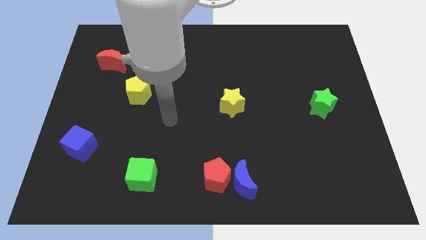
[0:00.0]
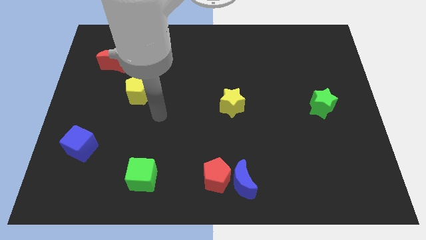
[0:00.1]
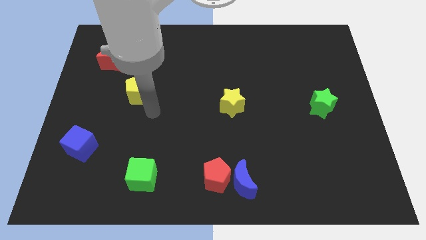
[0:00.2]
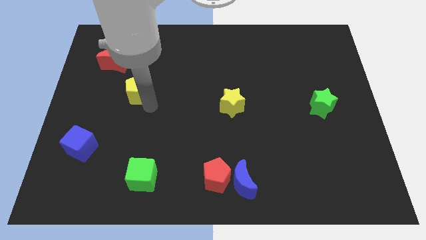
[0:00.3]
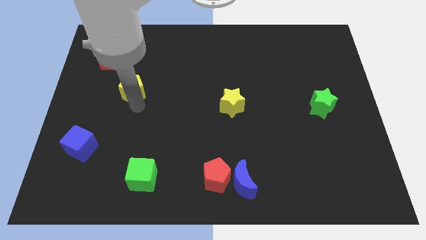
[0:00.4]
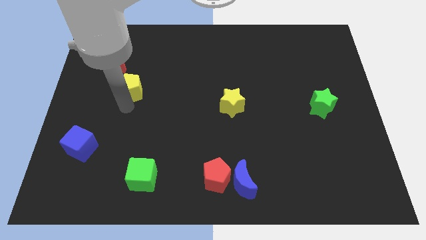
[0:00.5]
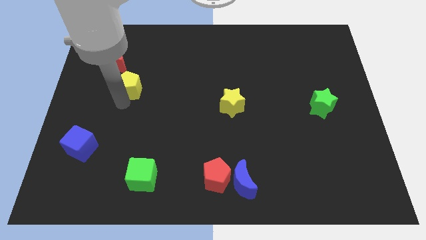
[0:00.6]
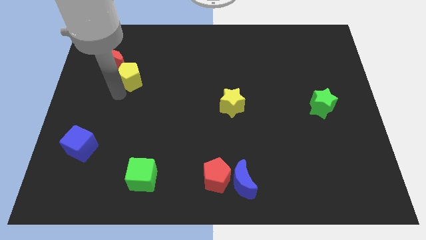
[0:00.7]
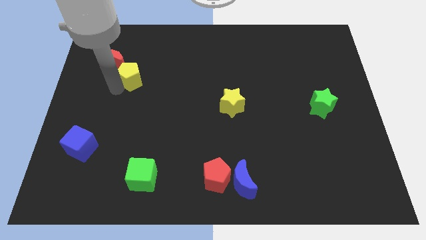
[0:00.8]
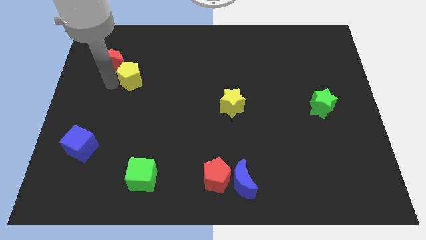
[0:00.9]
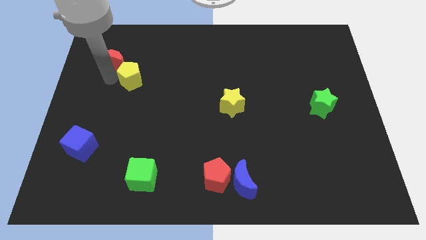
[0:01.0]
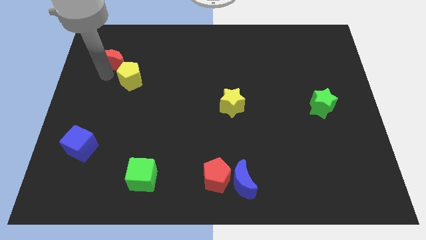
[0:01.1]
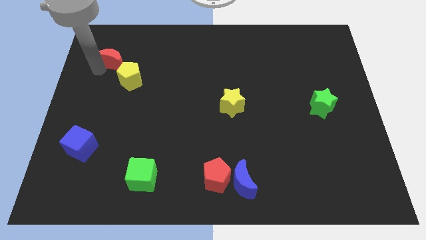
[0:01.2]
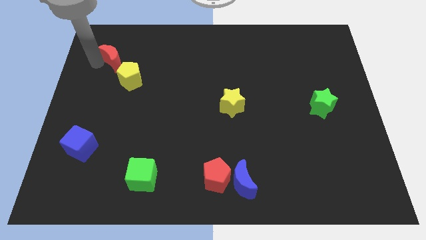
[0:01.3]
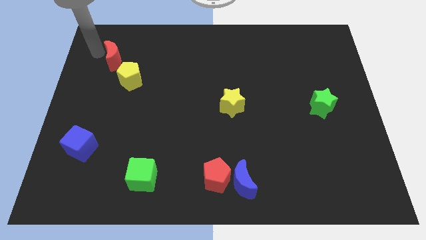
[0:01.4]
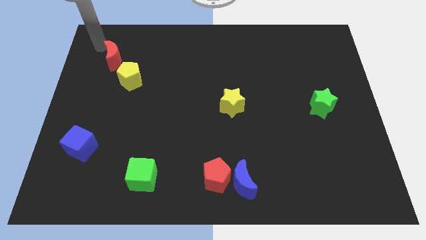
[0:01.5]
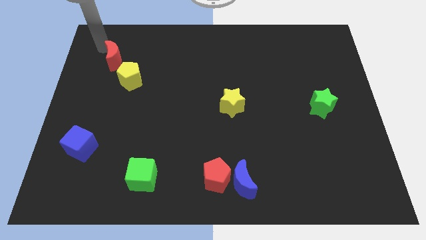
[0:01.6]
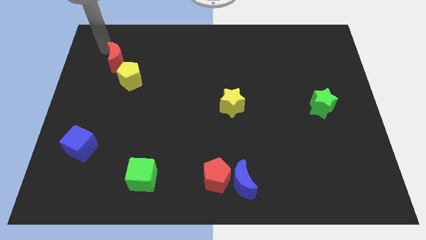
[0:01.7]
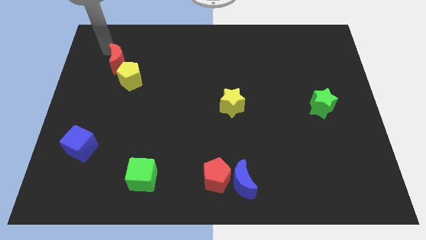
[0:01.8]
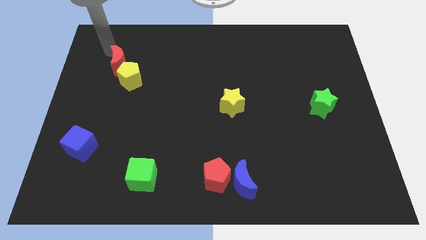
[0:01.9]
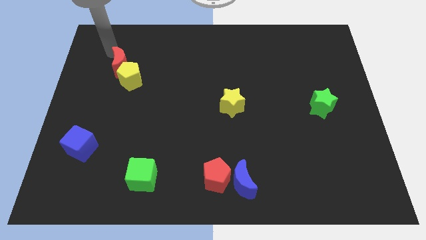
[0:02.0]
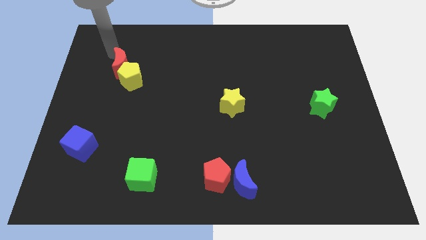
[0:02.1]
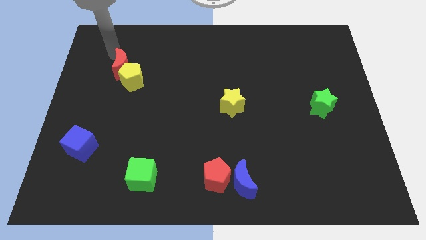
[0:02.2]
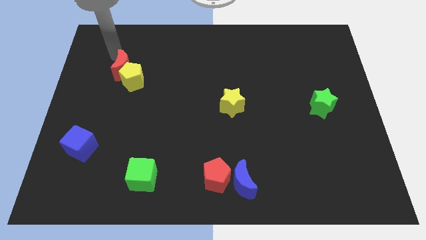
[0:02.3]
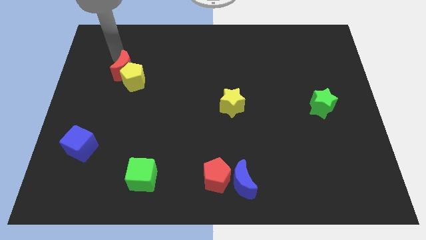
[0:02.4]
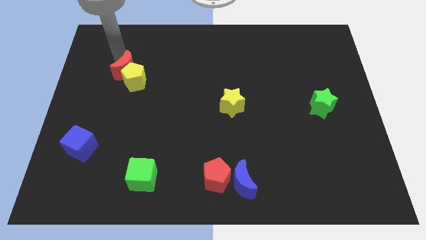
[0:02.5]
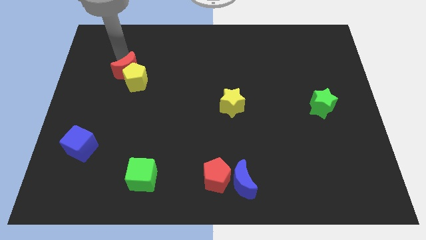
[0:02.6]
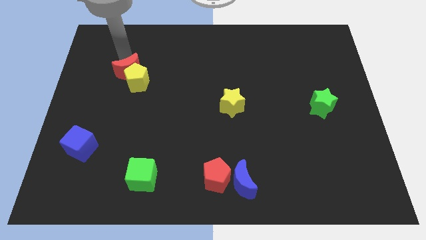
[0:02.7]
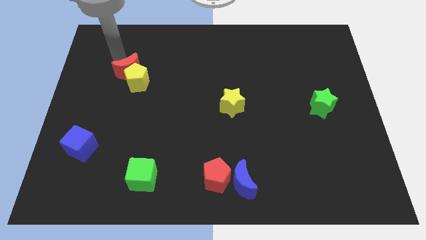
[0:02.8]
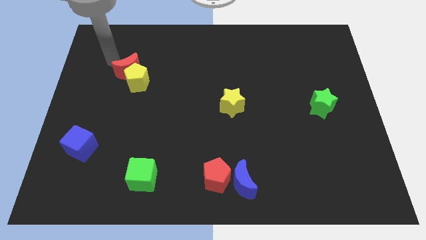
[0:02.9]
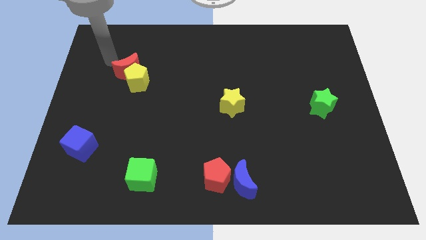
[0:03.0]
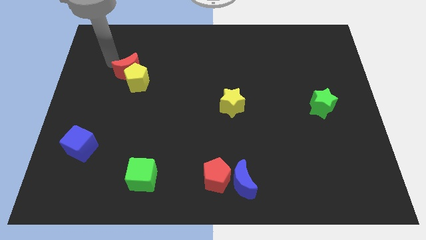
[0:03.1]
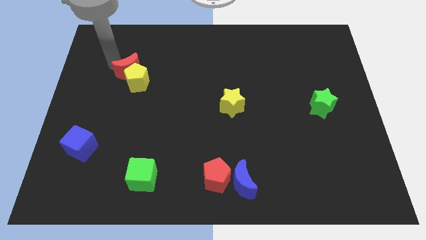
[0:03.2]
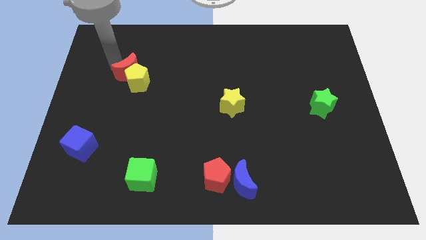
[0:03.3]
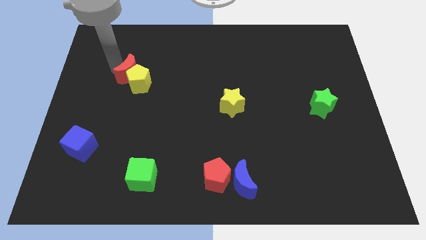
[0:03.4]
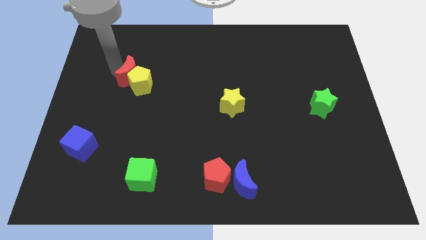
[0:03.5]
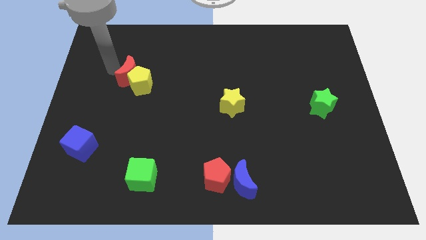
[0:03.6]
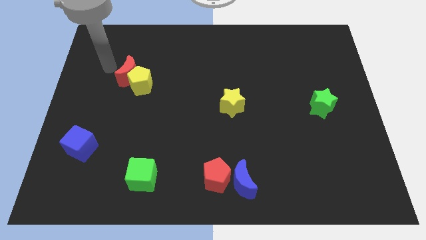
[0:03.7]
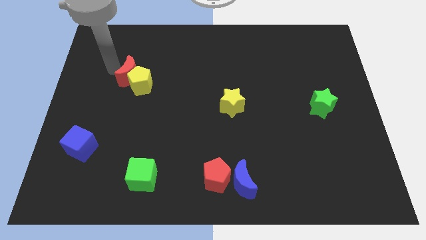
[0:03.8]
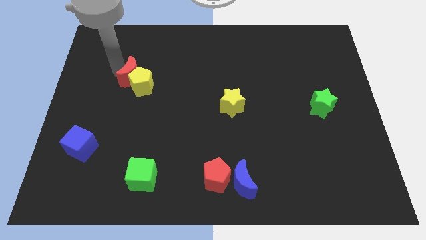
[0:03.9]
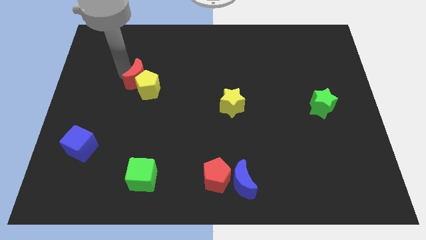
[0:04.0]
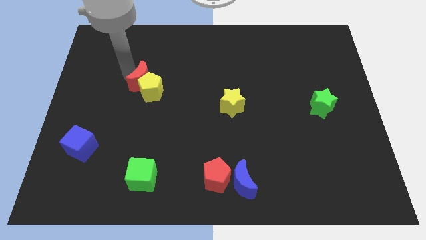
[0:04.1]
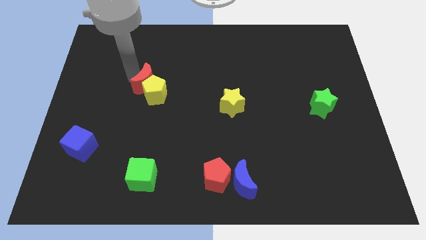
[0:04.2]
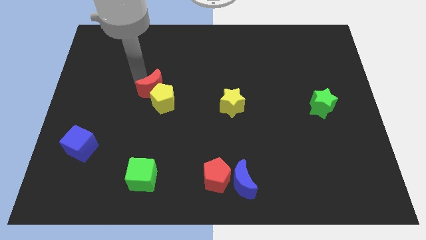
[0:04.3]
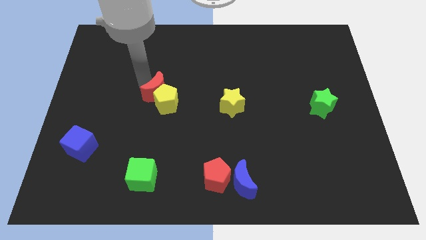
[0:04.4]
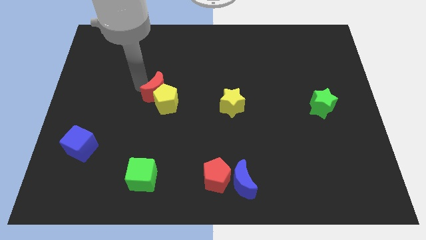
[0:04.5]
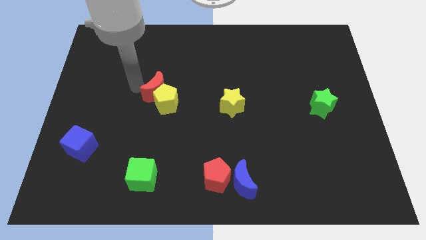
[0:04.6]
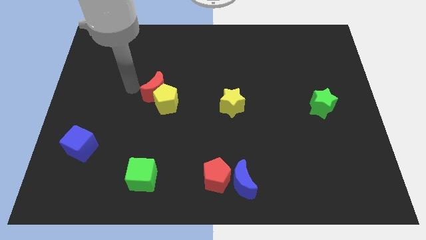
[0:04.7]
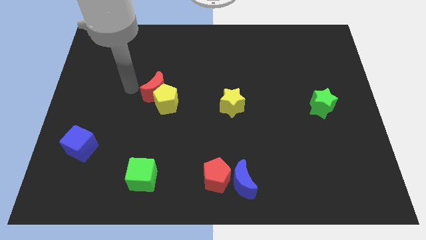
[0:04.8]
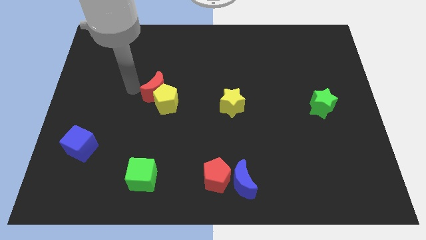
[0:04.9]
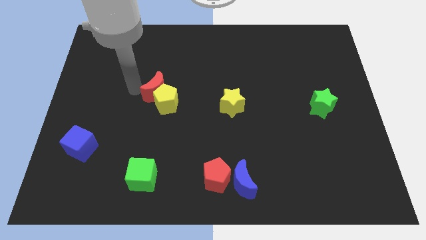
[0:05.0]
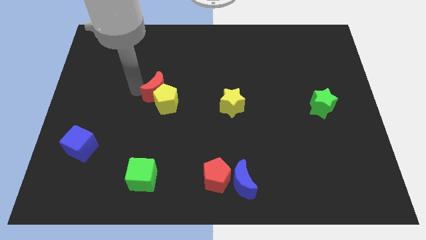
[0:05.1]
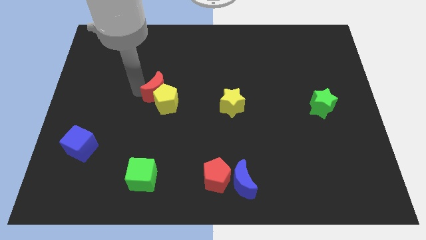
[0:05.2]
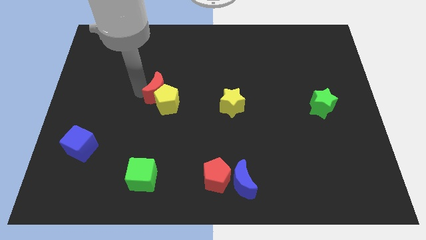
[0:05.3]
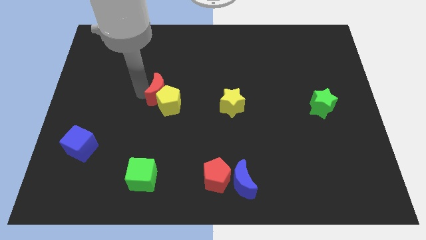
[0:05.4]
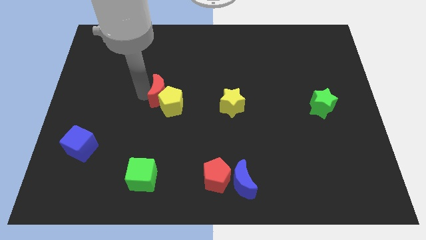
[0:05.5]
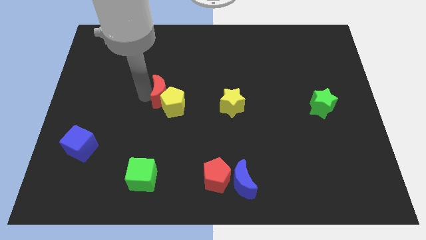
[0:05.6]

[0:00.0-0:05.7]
push the red moon to the center of the board

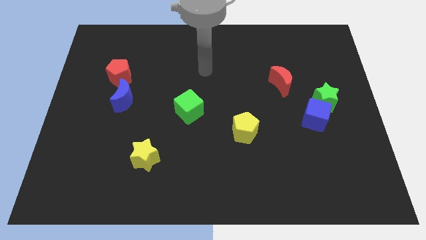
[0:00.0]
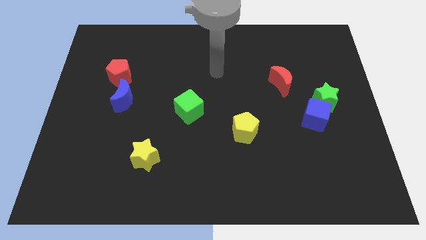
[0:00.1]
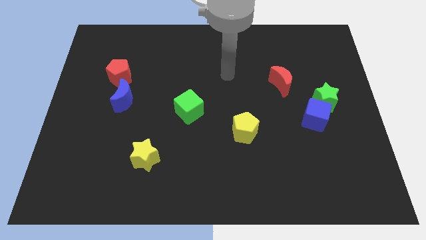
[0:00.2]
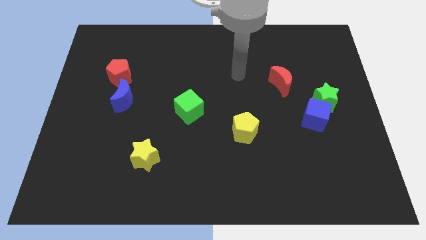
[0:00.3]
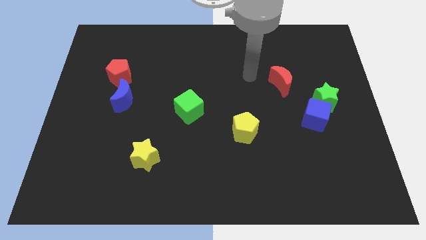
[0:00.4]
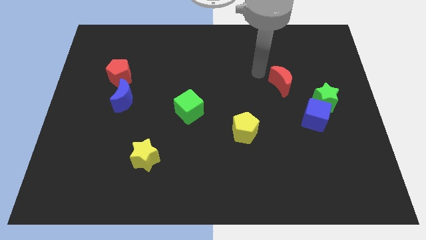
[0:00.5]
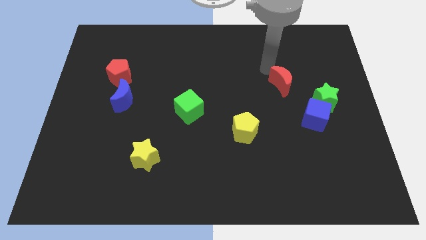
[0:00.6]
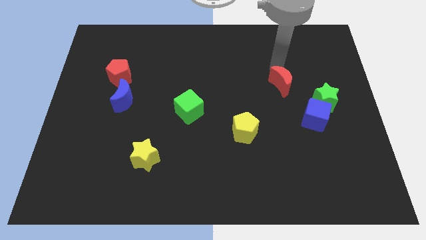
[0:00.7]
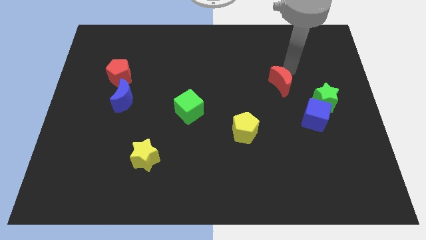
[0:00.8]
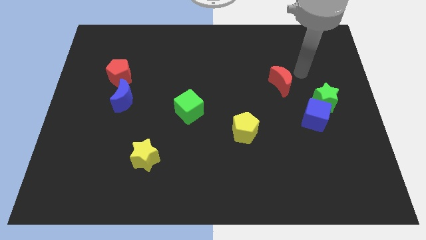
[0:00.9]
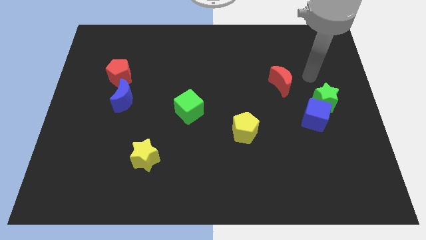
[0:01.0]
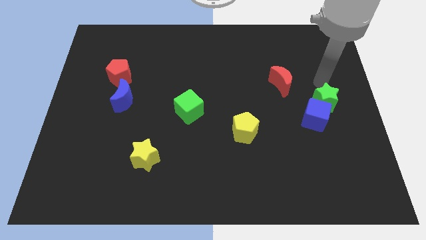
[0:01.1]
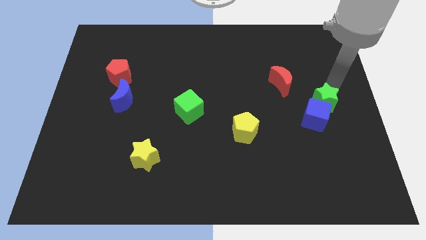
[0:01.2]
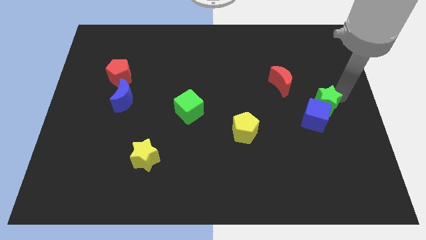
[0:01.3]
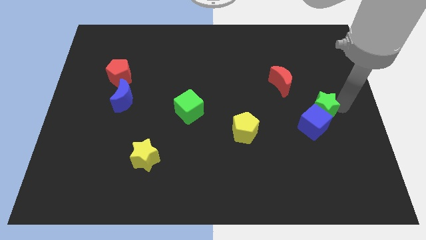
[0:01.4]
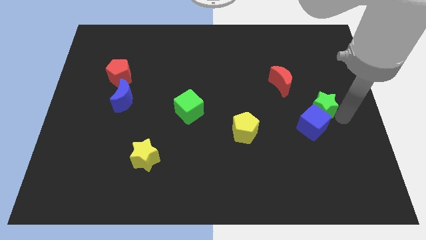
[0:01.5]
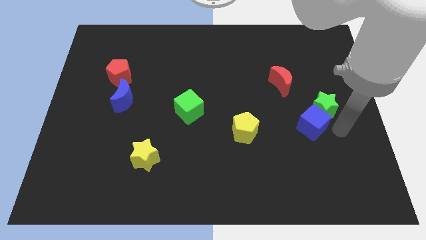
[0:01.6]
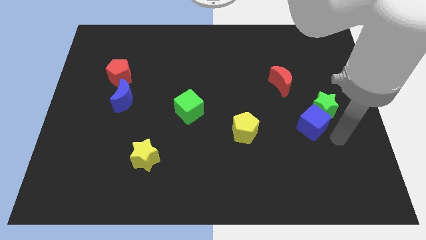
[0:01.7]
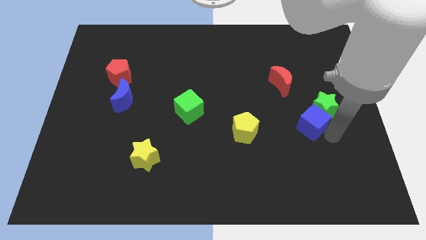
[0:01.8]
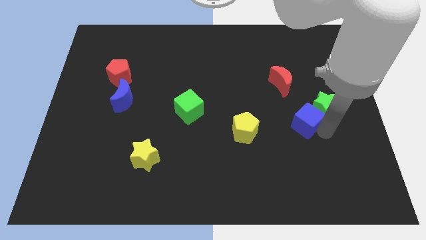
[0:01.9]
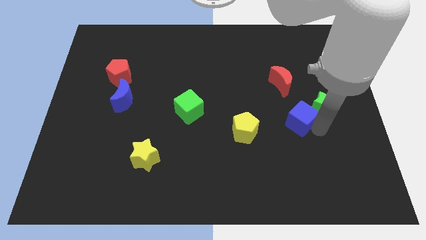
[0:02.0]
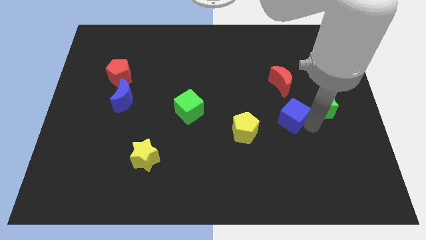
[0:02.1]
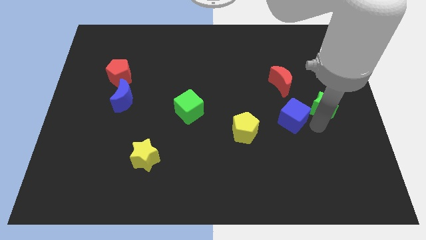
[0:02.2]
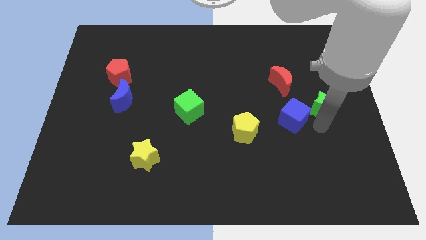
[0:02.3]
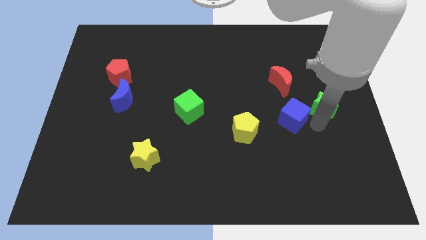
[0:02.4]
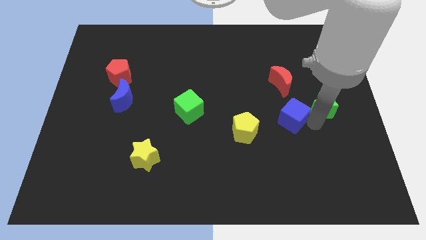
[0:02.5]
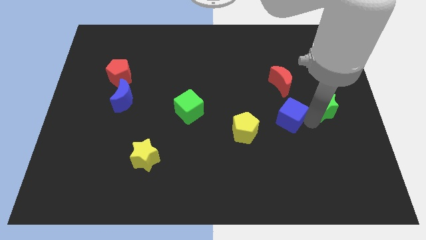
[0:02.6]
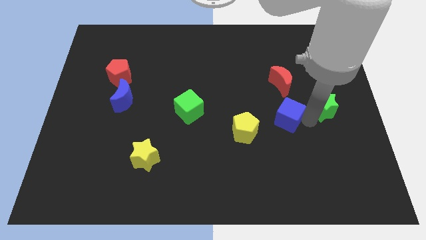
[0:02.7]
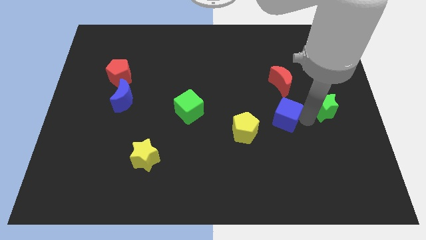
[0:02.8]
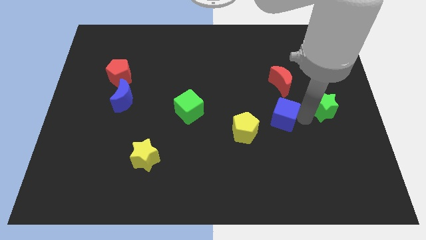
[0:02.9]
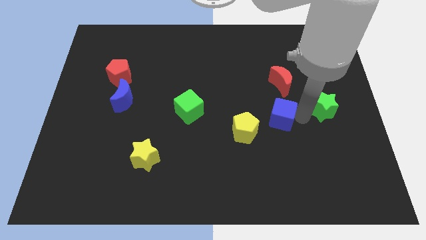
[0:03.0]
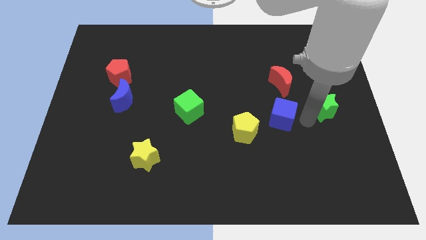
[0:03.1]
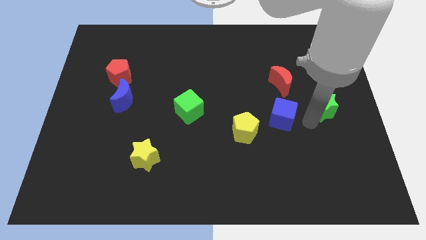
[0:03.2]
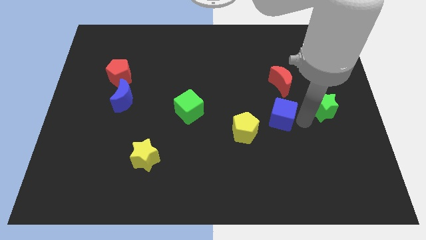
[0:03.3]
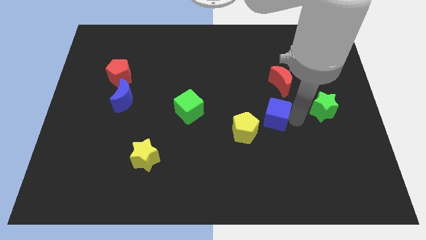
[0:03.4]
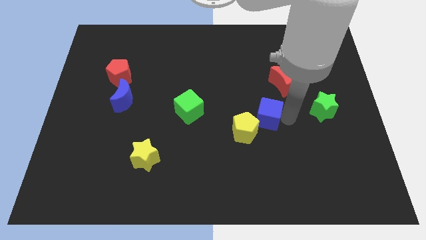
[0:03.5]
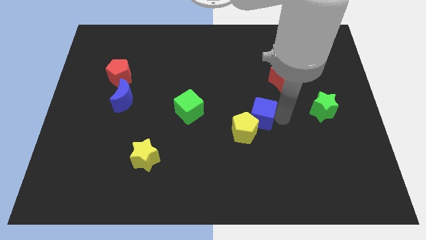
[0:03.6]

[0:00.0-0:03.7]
push the blue cube to the middle
